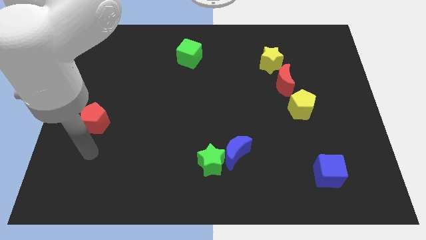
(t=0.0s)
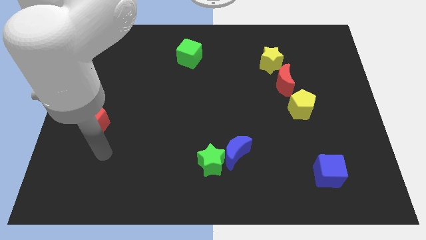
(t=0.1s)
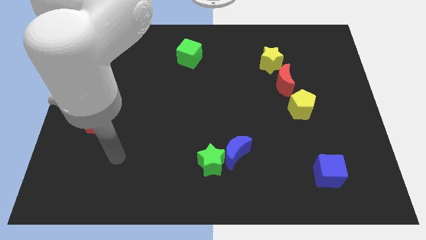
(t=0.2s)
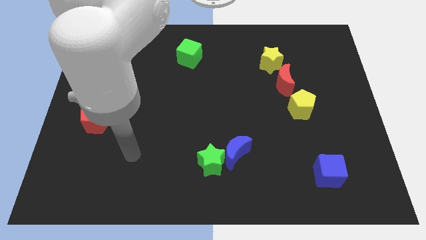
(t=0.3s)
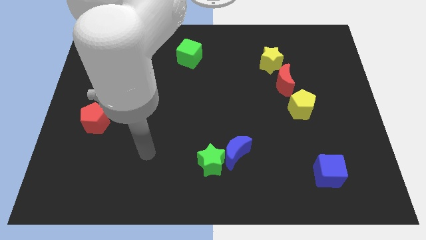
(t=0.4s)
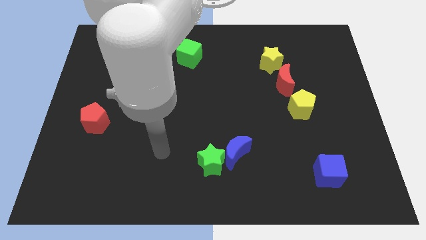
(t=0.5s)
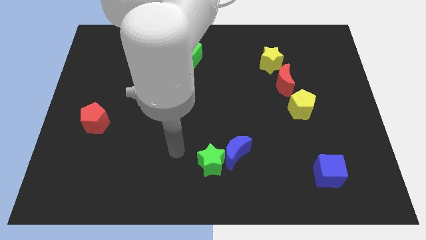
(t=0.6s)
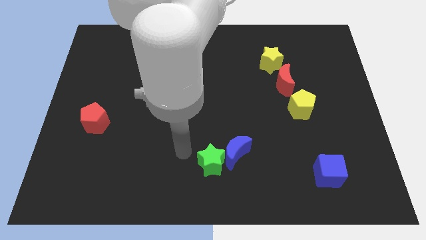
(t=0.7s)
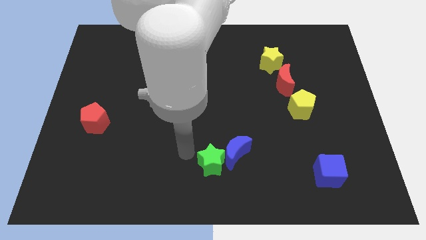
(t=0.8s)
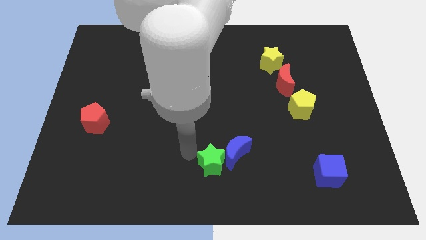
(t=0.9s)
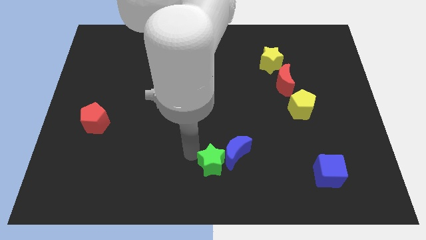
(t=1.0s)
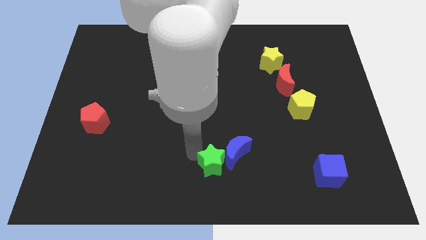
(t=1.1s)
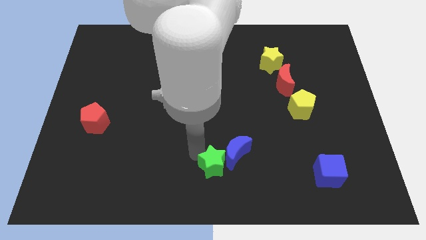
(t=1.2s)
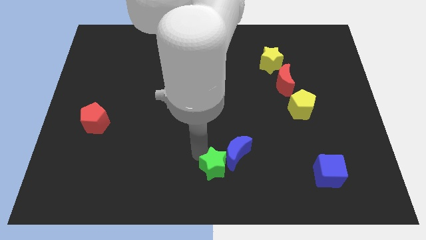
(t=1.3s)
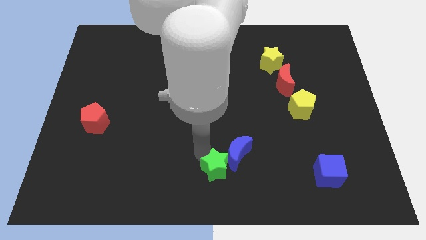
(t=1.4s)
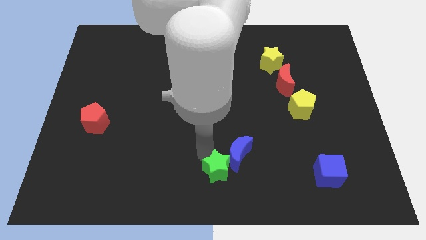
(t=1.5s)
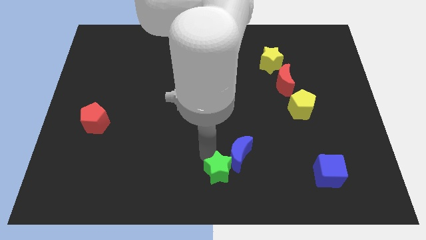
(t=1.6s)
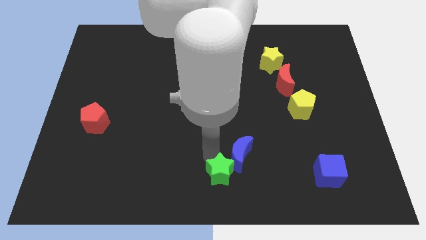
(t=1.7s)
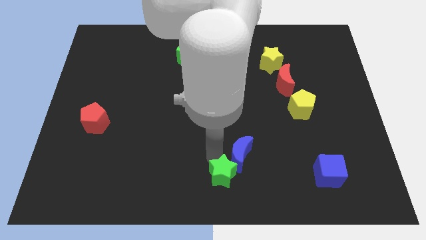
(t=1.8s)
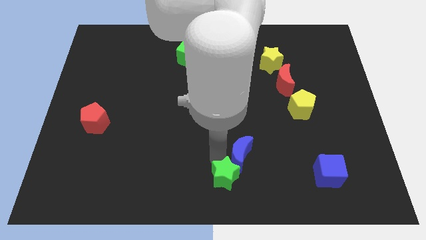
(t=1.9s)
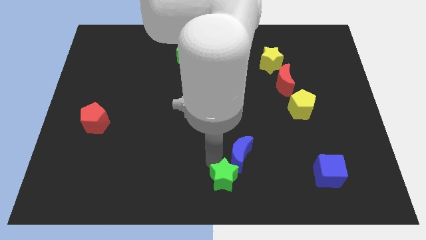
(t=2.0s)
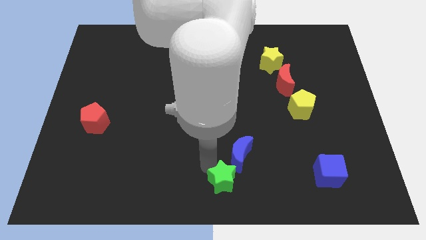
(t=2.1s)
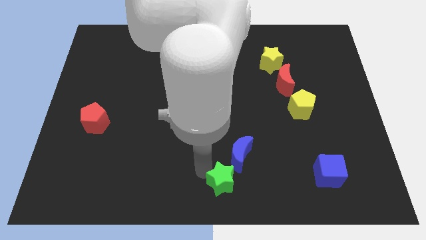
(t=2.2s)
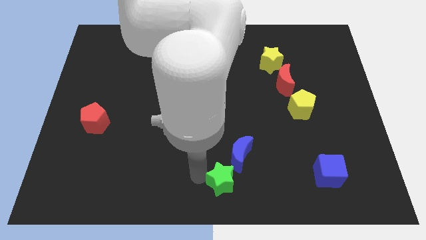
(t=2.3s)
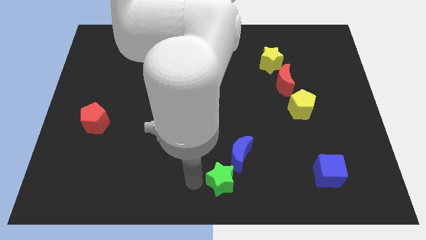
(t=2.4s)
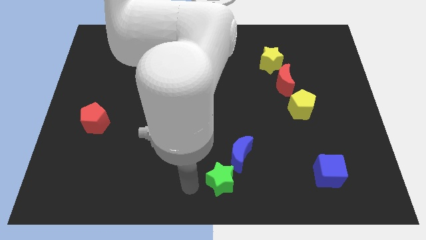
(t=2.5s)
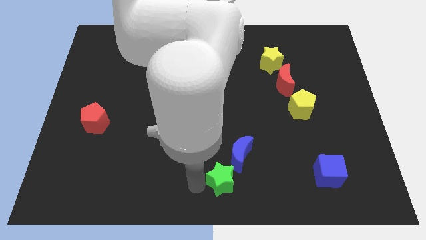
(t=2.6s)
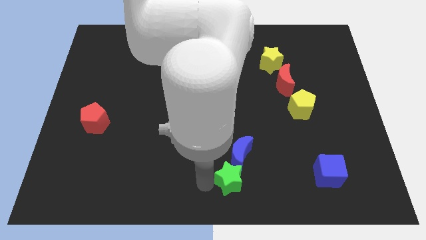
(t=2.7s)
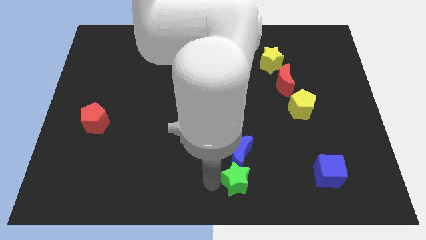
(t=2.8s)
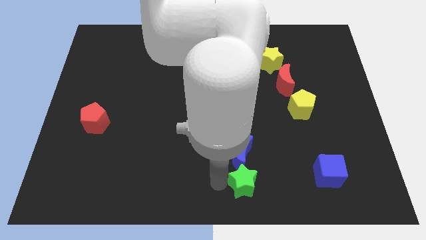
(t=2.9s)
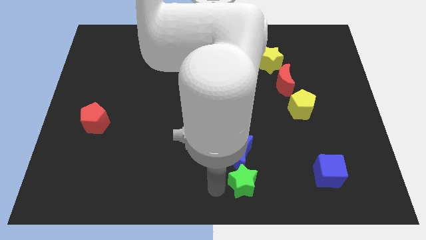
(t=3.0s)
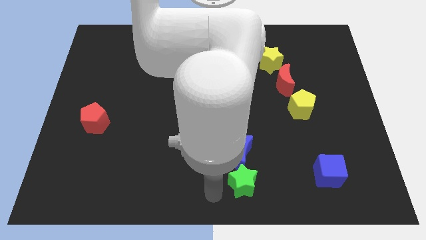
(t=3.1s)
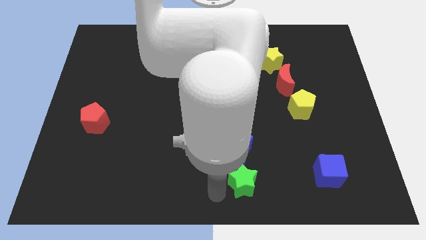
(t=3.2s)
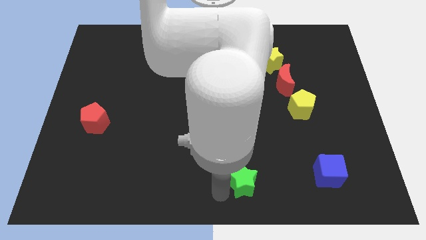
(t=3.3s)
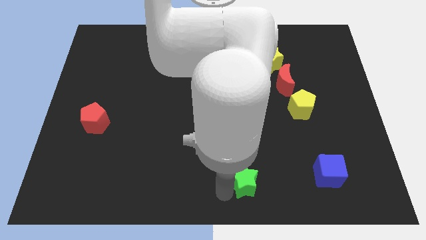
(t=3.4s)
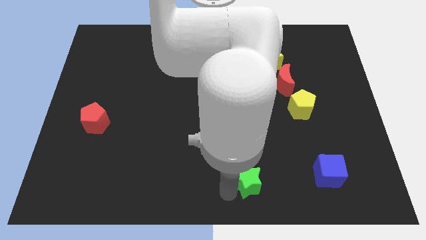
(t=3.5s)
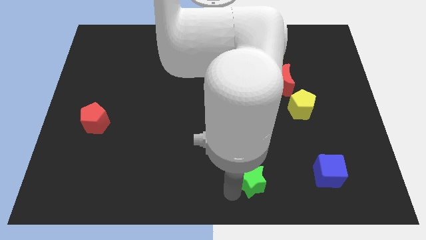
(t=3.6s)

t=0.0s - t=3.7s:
push the green star to the right slightly

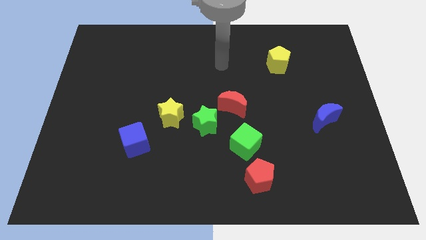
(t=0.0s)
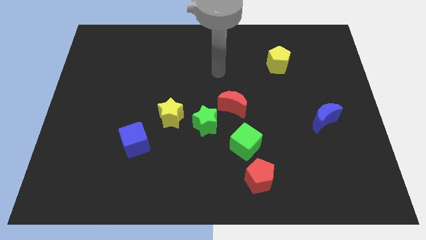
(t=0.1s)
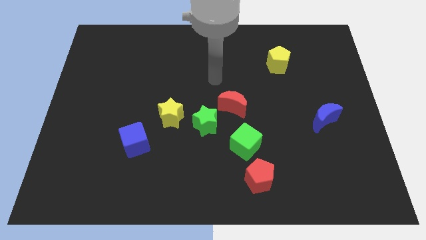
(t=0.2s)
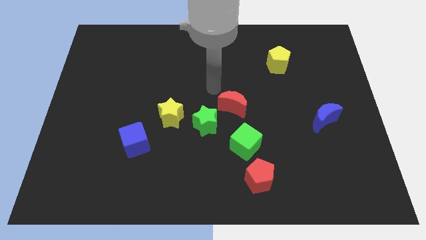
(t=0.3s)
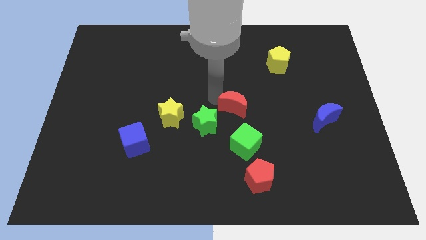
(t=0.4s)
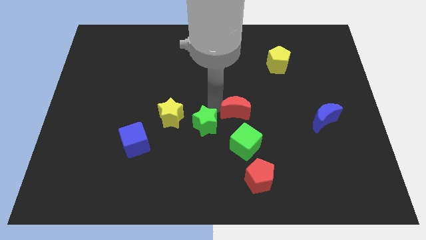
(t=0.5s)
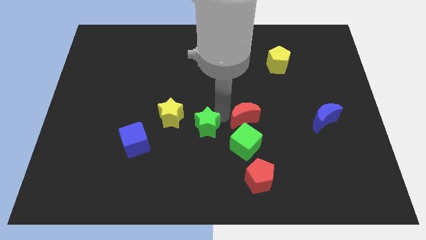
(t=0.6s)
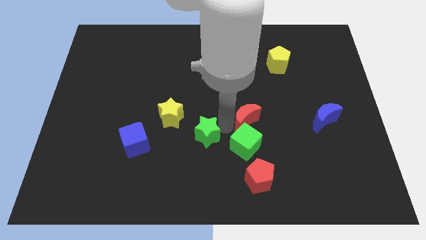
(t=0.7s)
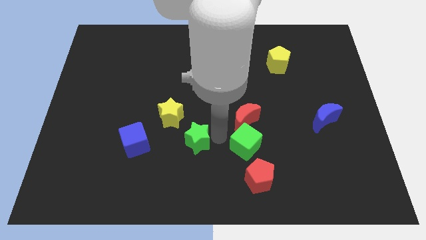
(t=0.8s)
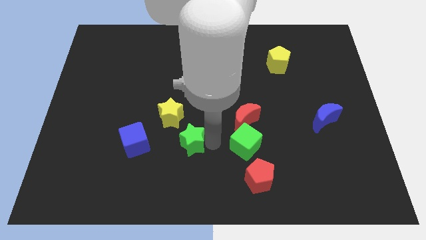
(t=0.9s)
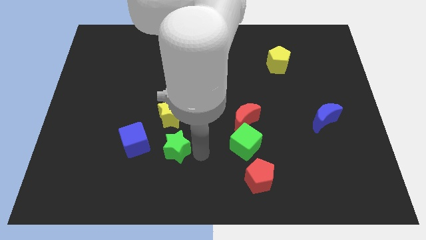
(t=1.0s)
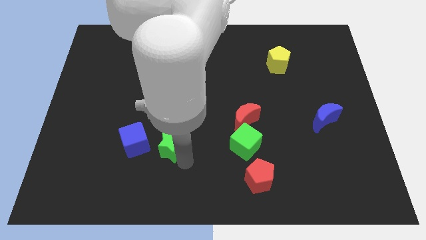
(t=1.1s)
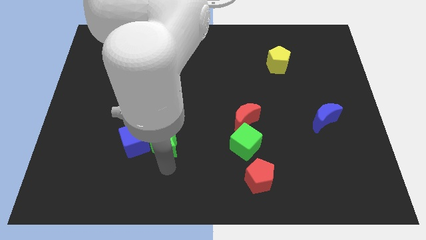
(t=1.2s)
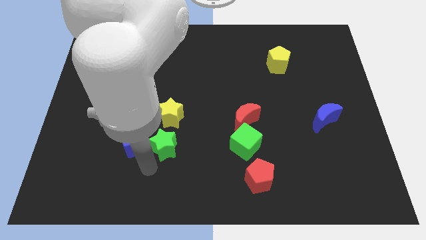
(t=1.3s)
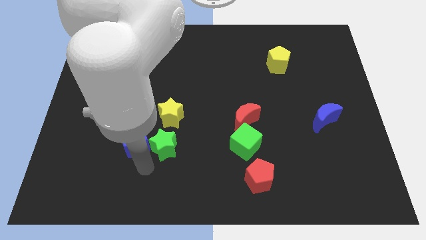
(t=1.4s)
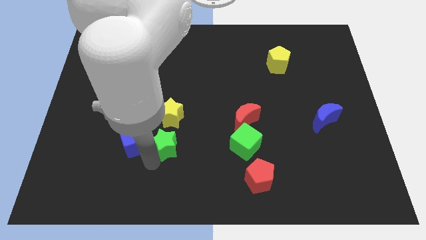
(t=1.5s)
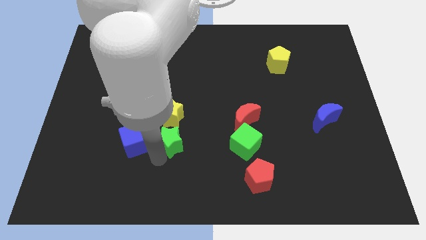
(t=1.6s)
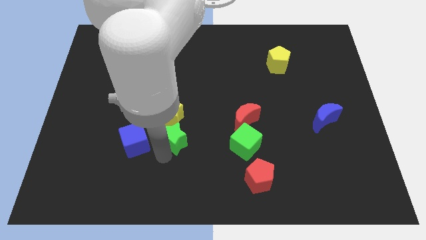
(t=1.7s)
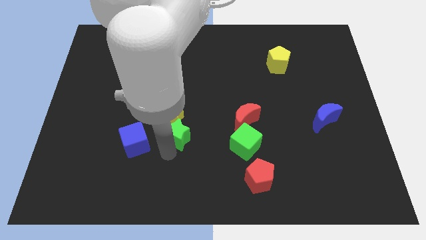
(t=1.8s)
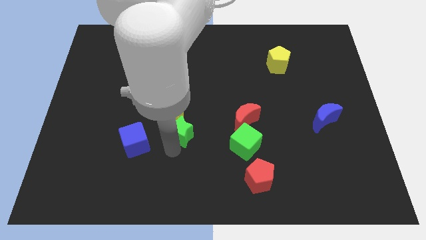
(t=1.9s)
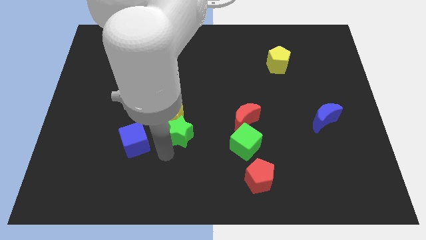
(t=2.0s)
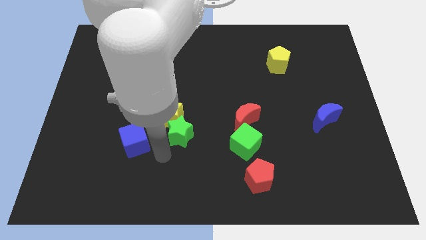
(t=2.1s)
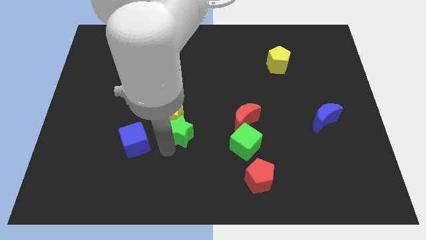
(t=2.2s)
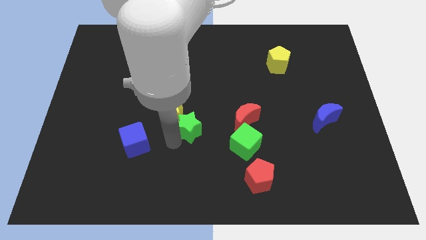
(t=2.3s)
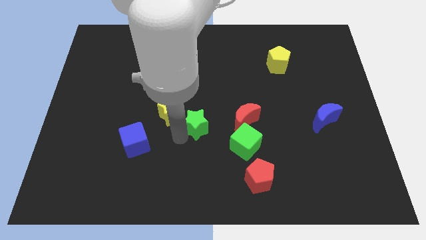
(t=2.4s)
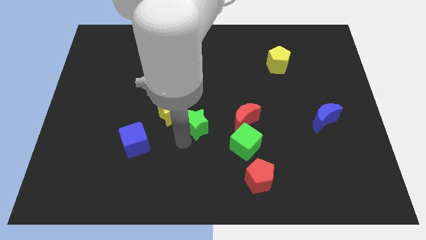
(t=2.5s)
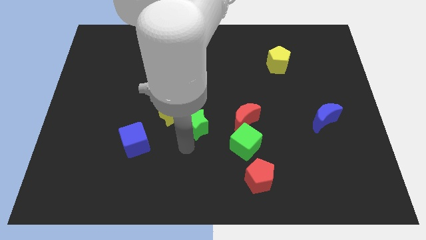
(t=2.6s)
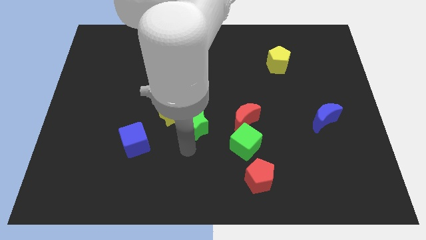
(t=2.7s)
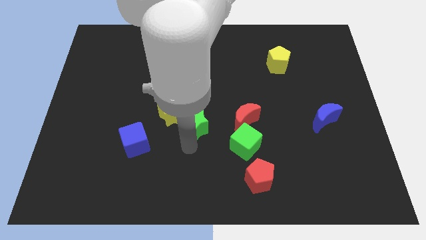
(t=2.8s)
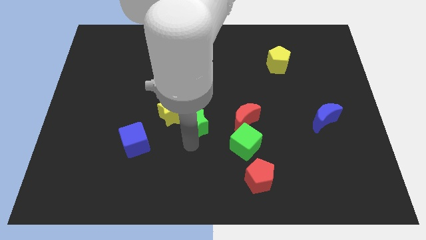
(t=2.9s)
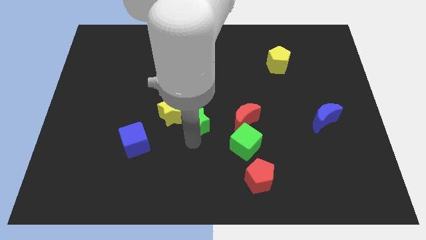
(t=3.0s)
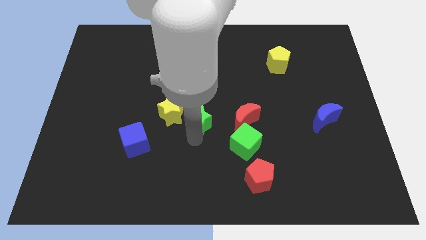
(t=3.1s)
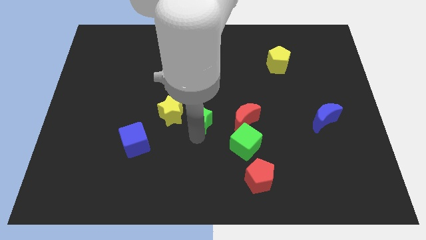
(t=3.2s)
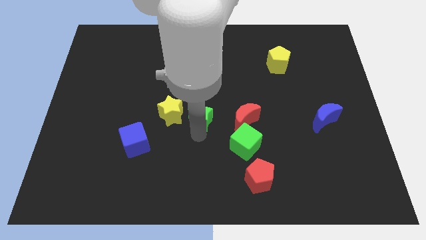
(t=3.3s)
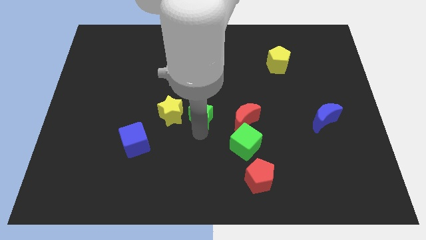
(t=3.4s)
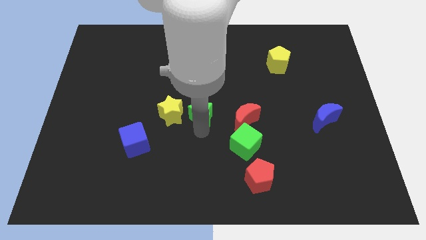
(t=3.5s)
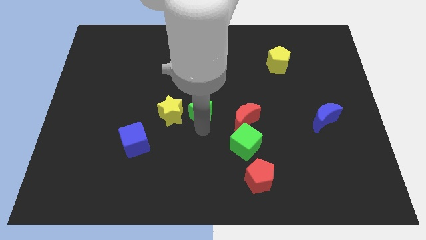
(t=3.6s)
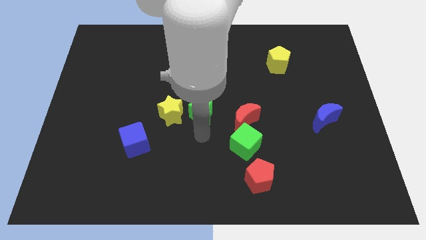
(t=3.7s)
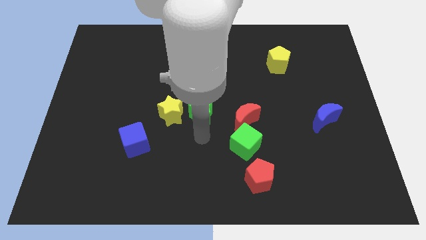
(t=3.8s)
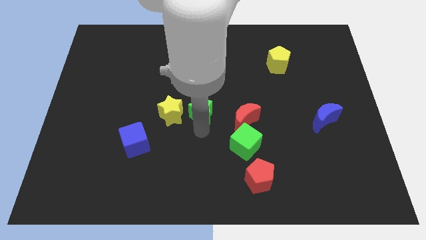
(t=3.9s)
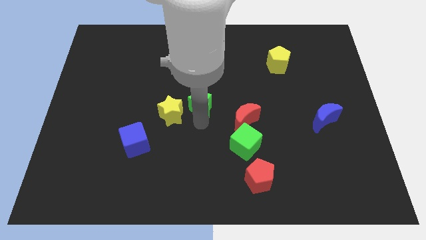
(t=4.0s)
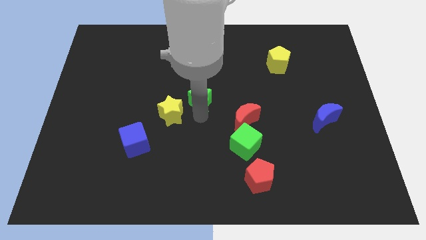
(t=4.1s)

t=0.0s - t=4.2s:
push the green star up a little
